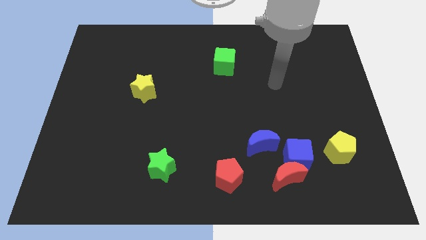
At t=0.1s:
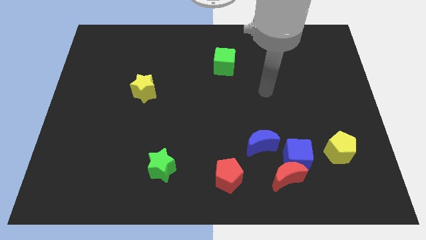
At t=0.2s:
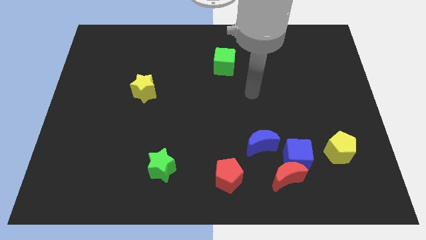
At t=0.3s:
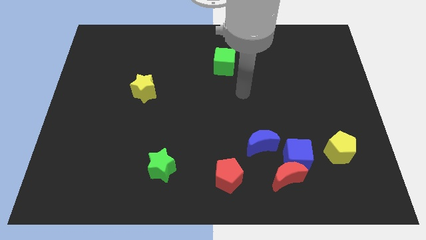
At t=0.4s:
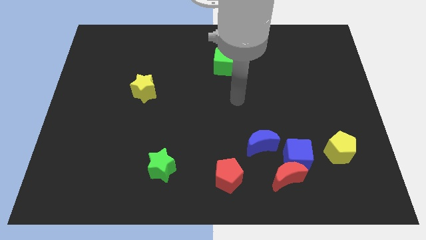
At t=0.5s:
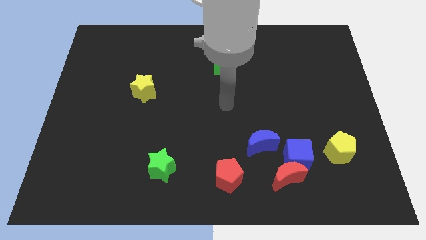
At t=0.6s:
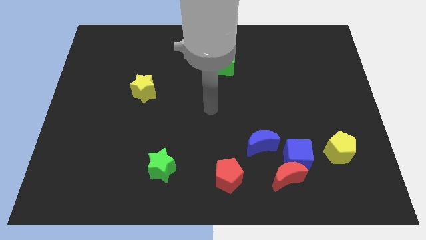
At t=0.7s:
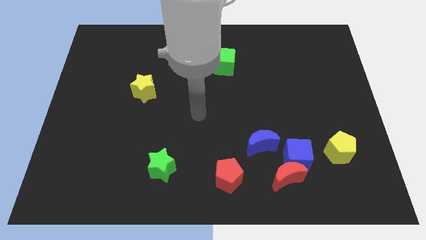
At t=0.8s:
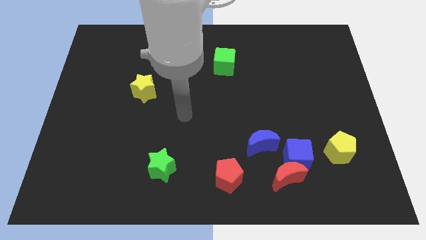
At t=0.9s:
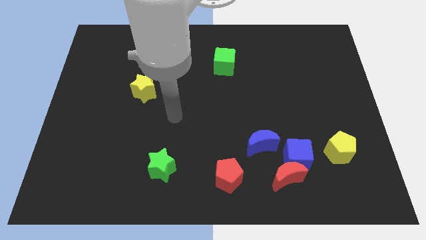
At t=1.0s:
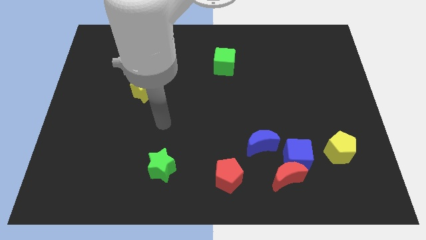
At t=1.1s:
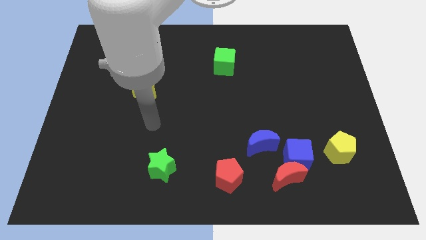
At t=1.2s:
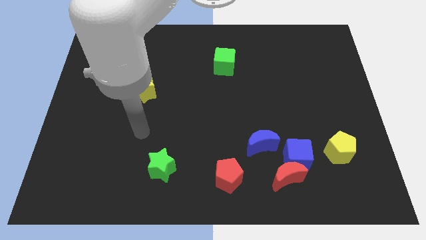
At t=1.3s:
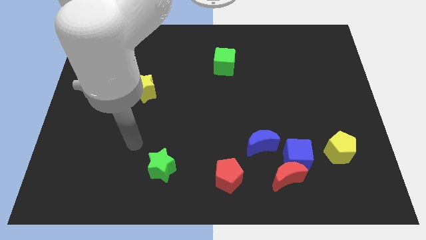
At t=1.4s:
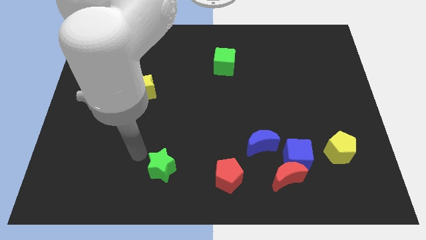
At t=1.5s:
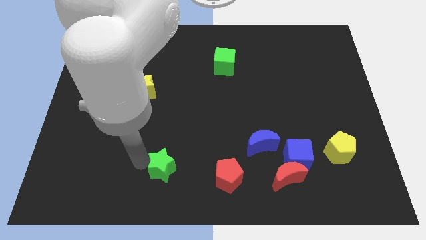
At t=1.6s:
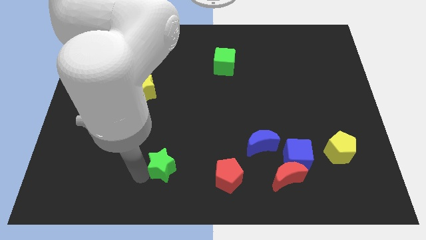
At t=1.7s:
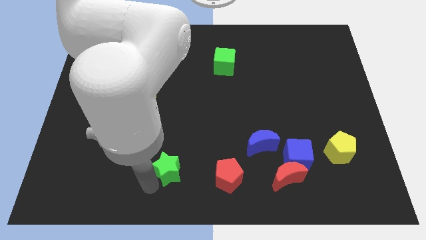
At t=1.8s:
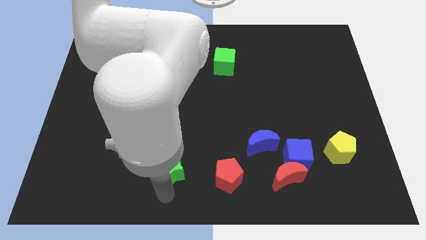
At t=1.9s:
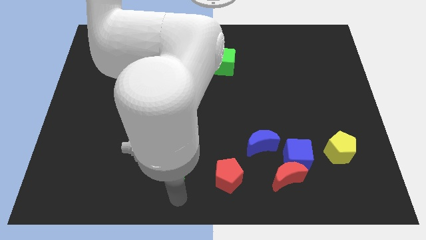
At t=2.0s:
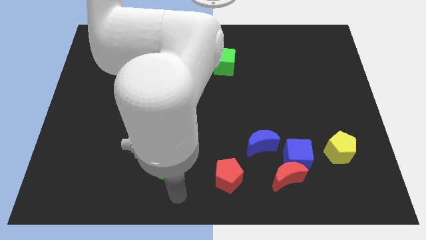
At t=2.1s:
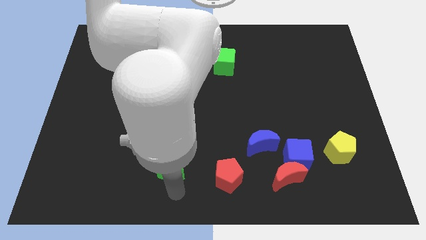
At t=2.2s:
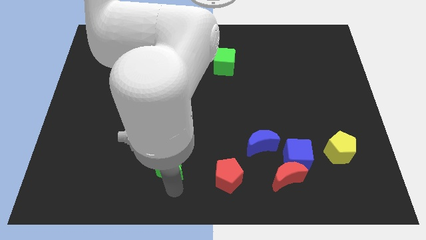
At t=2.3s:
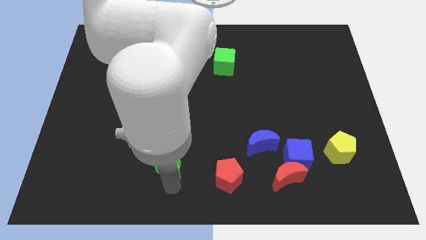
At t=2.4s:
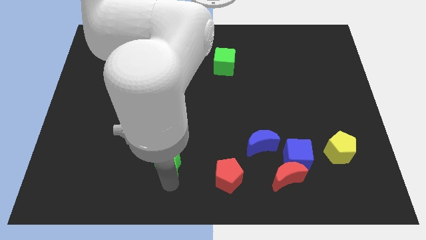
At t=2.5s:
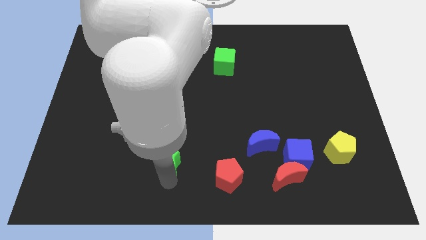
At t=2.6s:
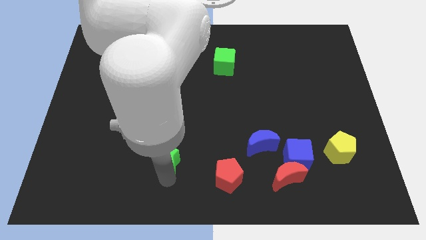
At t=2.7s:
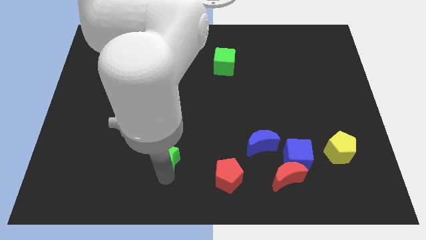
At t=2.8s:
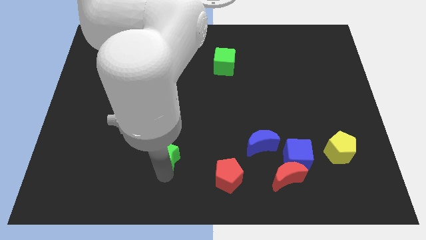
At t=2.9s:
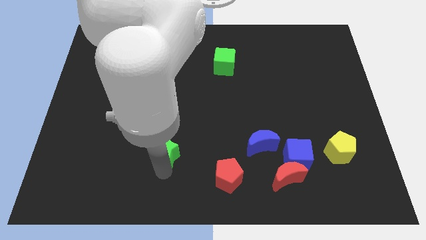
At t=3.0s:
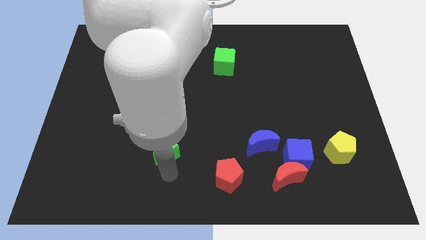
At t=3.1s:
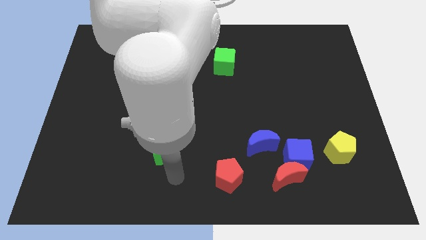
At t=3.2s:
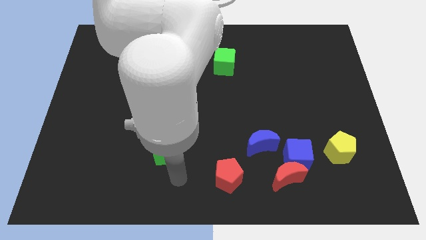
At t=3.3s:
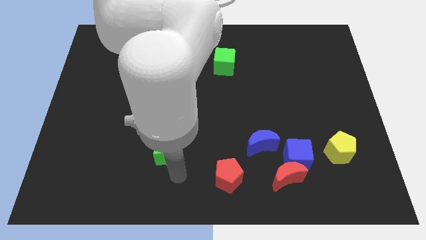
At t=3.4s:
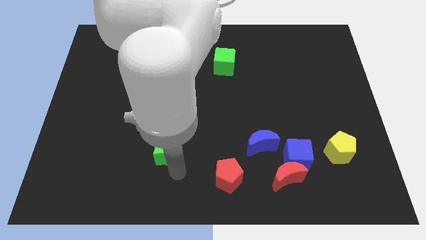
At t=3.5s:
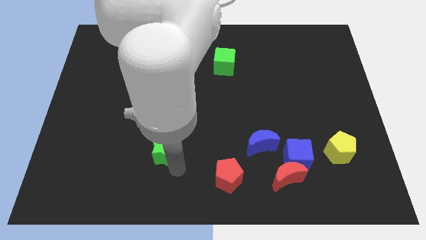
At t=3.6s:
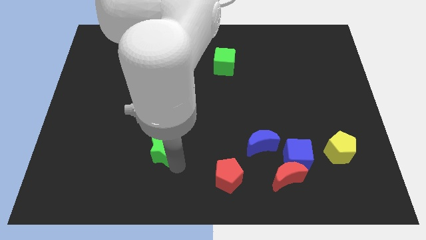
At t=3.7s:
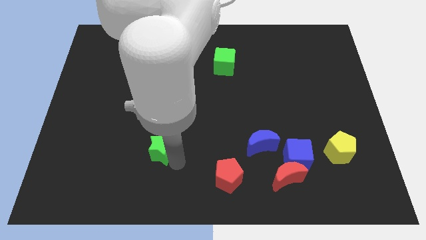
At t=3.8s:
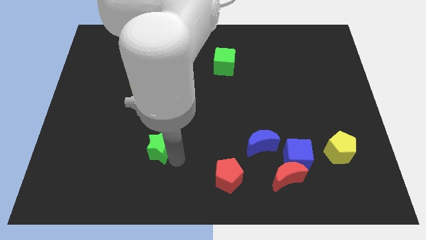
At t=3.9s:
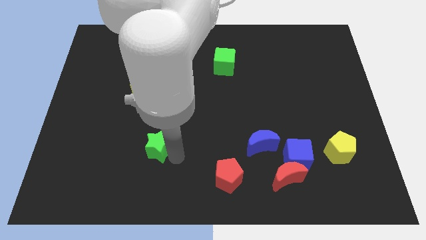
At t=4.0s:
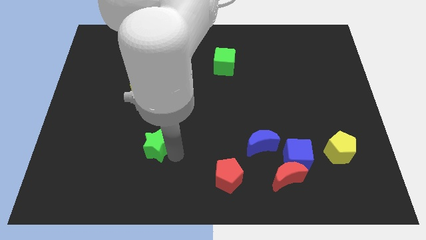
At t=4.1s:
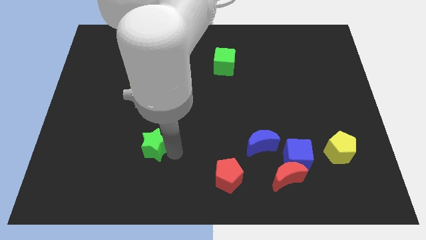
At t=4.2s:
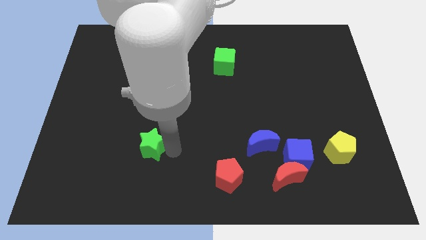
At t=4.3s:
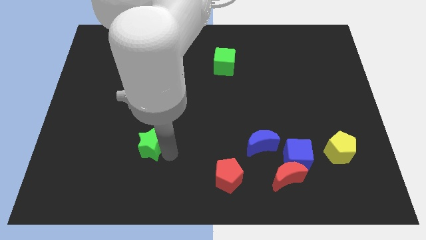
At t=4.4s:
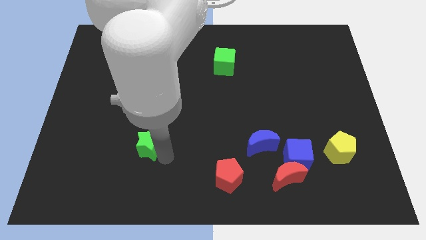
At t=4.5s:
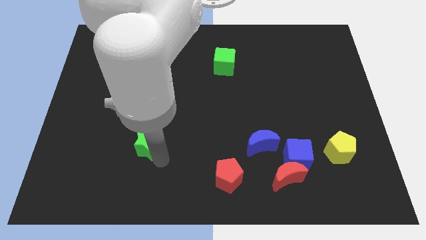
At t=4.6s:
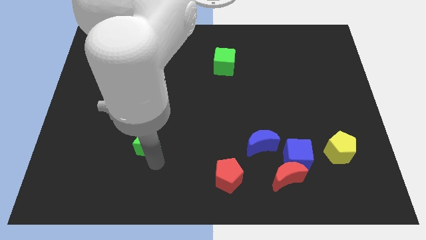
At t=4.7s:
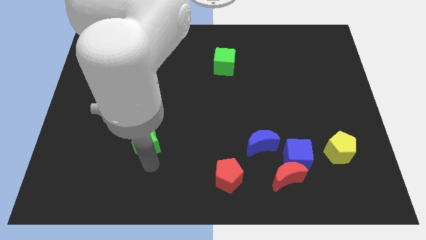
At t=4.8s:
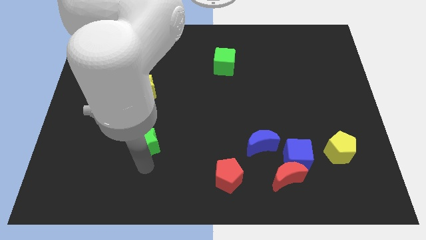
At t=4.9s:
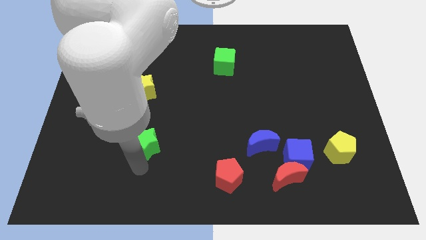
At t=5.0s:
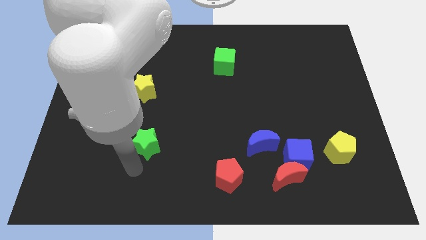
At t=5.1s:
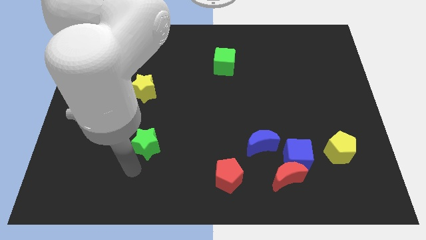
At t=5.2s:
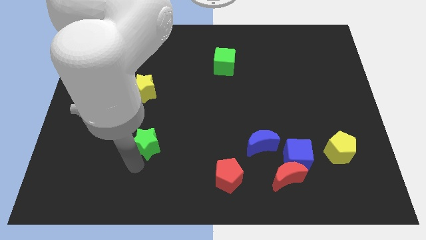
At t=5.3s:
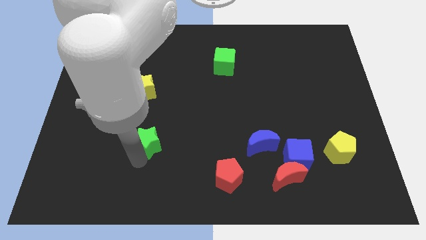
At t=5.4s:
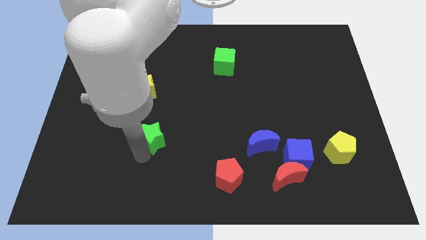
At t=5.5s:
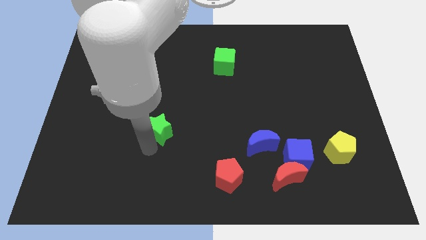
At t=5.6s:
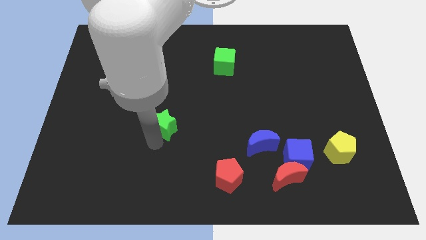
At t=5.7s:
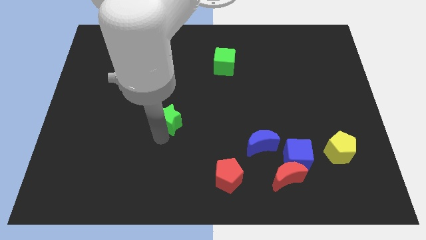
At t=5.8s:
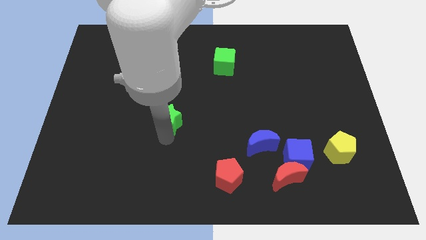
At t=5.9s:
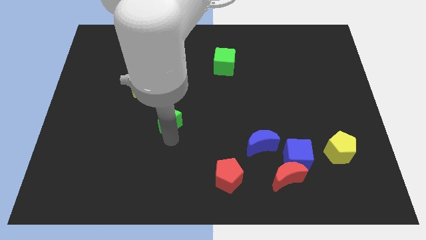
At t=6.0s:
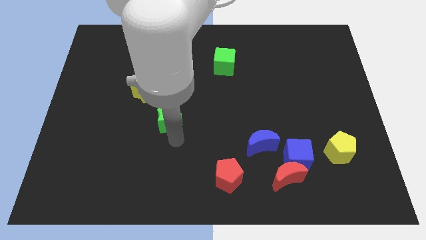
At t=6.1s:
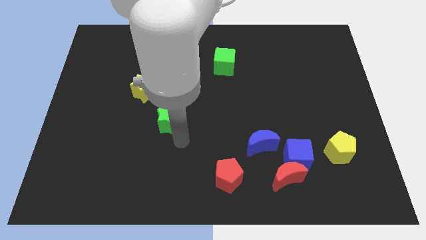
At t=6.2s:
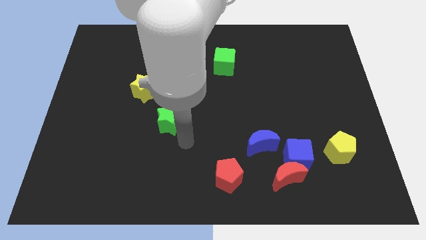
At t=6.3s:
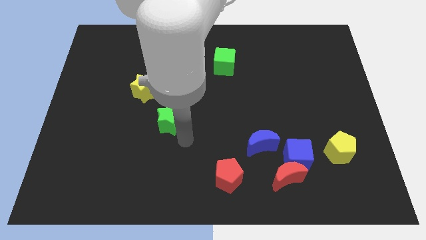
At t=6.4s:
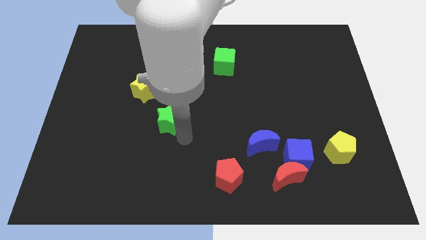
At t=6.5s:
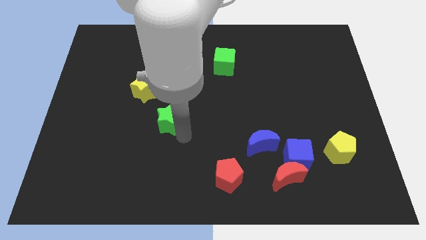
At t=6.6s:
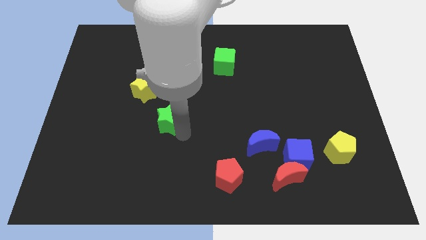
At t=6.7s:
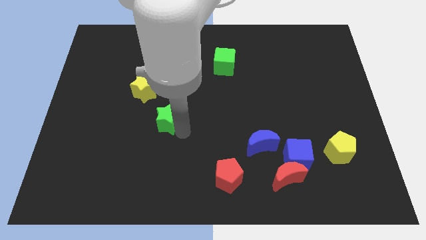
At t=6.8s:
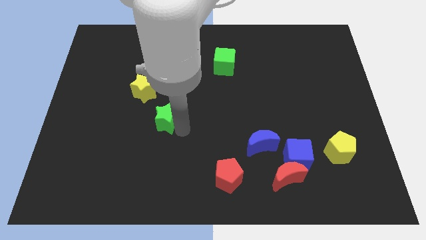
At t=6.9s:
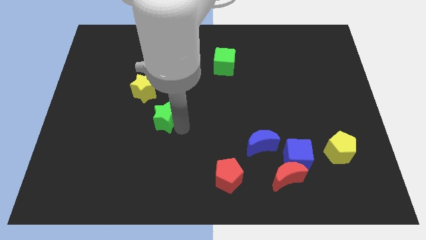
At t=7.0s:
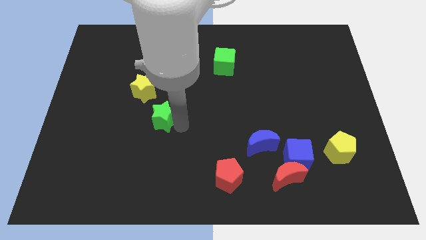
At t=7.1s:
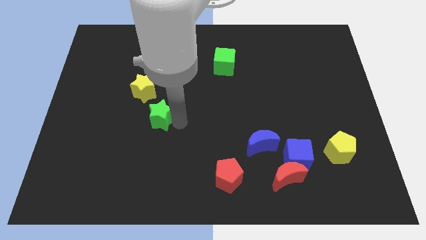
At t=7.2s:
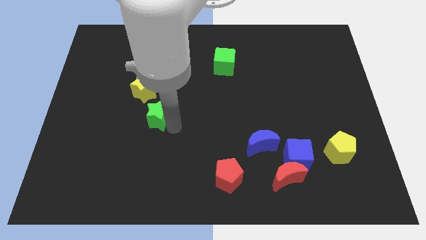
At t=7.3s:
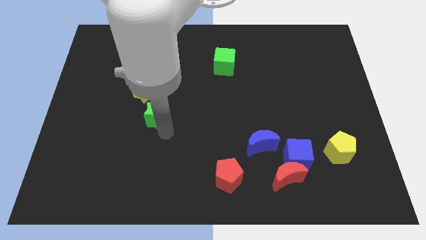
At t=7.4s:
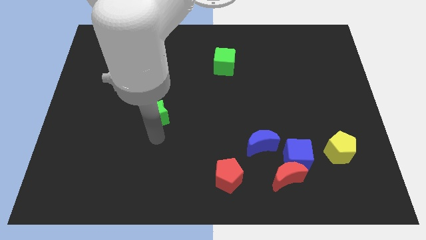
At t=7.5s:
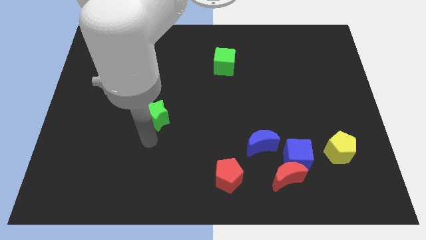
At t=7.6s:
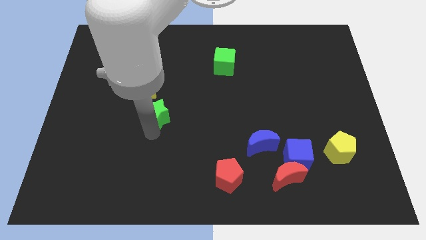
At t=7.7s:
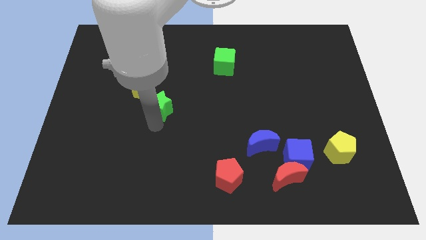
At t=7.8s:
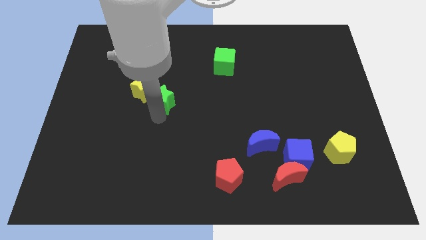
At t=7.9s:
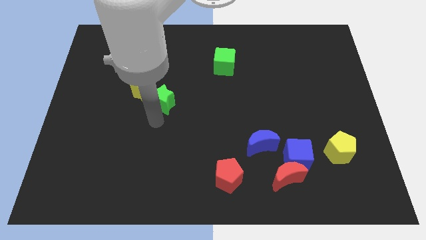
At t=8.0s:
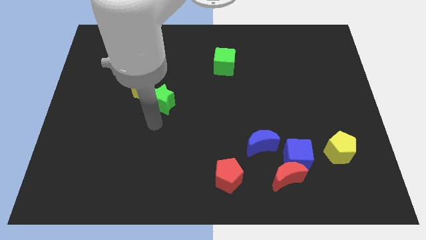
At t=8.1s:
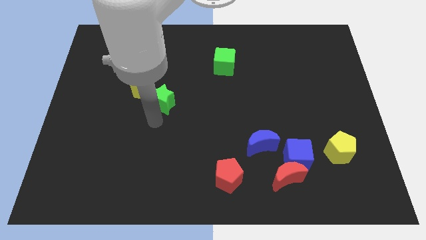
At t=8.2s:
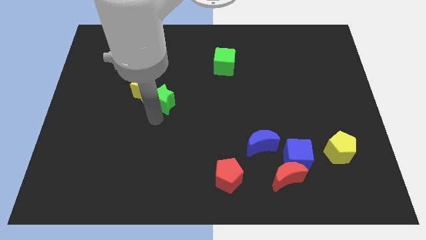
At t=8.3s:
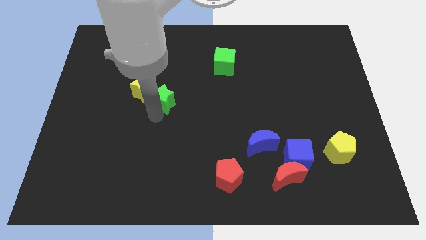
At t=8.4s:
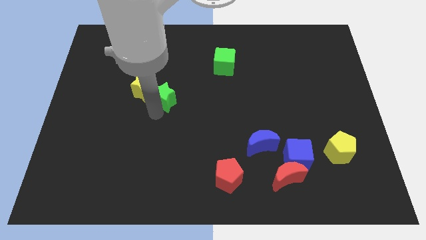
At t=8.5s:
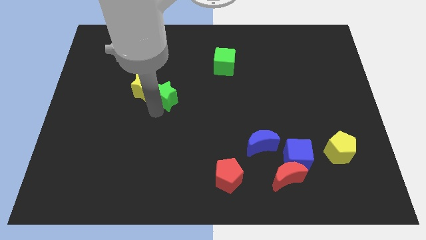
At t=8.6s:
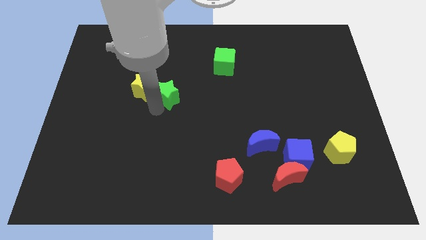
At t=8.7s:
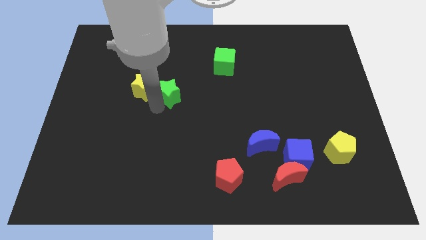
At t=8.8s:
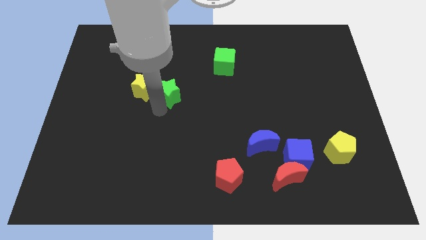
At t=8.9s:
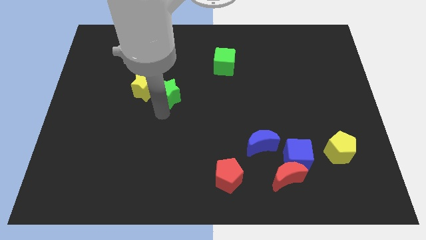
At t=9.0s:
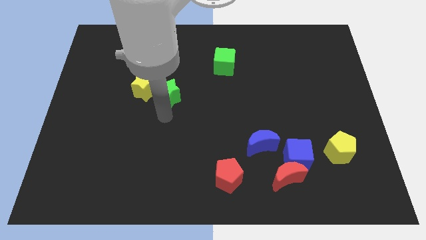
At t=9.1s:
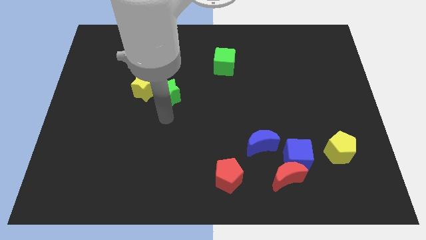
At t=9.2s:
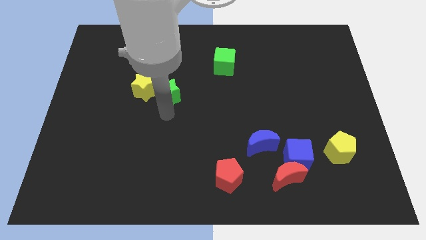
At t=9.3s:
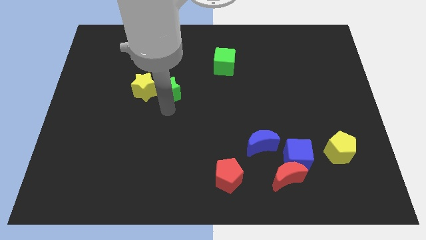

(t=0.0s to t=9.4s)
slide the green star upwards
